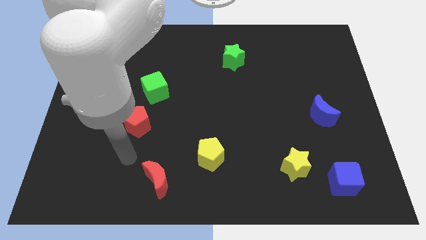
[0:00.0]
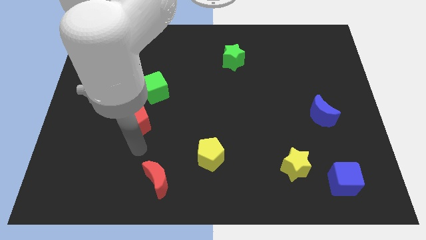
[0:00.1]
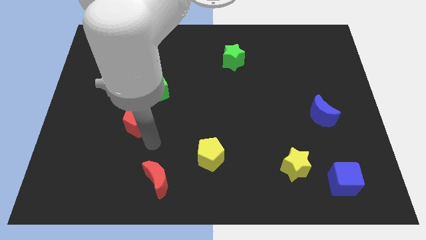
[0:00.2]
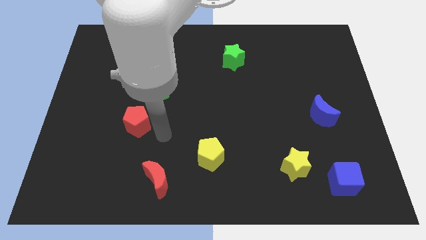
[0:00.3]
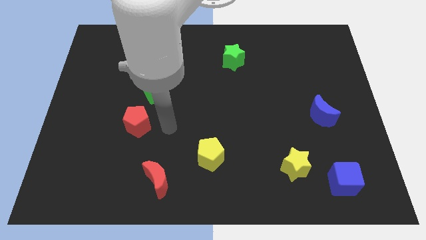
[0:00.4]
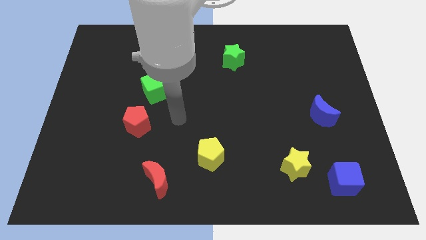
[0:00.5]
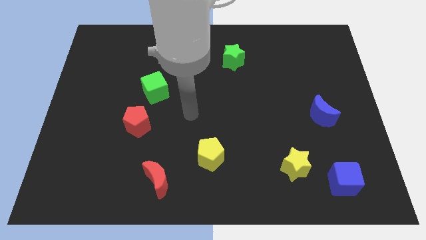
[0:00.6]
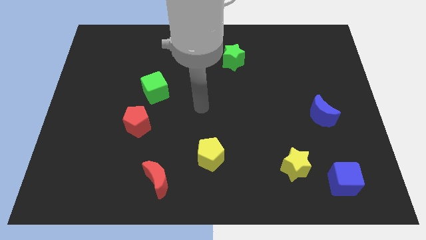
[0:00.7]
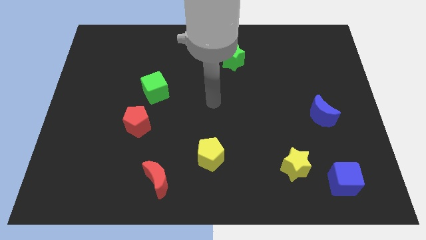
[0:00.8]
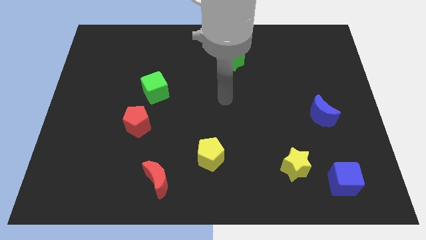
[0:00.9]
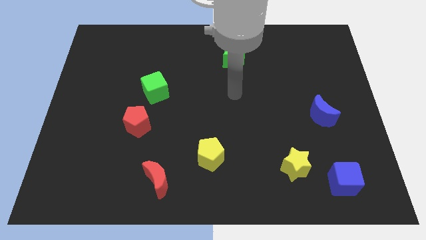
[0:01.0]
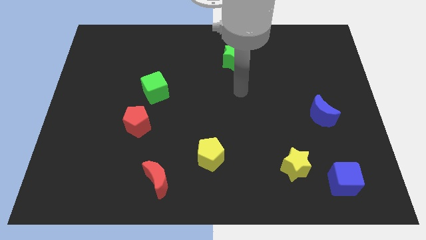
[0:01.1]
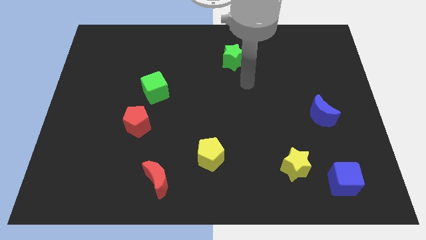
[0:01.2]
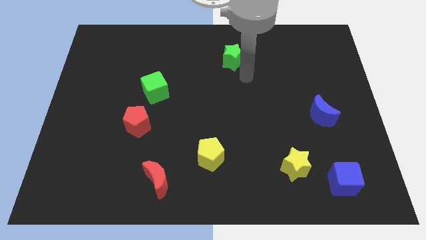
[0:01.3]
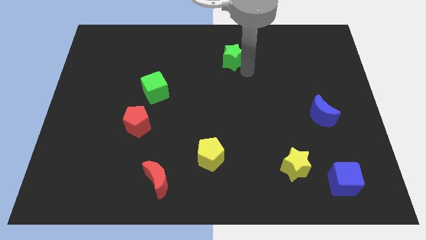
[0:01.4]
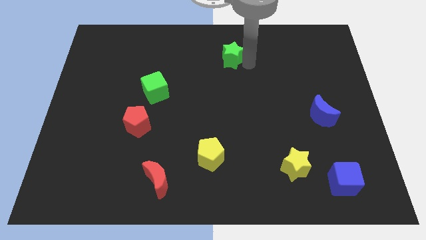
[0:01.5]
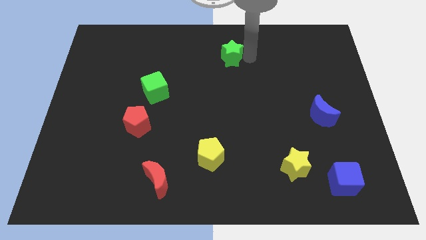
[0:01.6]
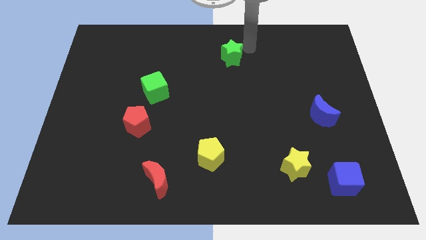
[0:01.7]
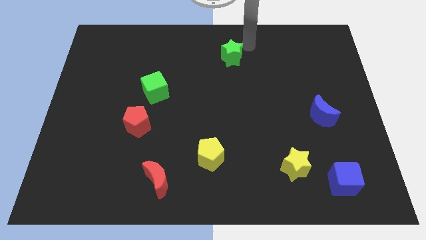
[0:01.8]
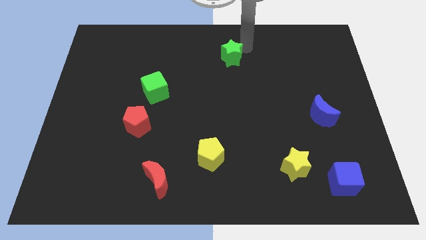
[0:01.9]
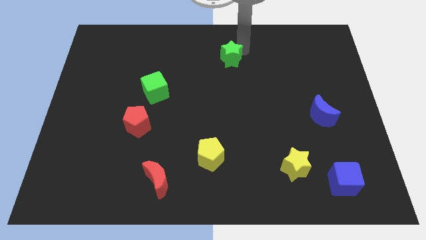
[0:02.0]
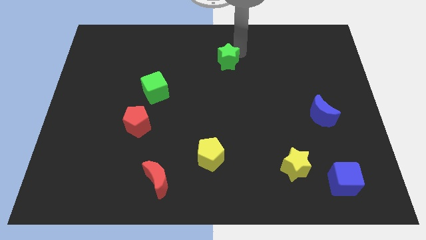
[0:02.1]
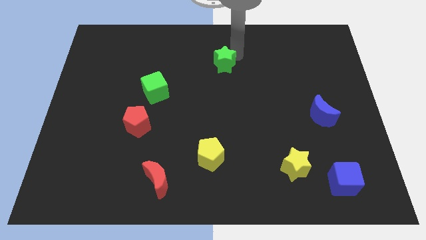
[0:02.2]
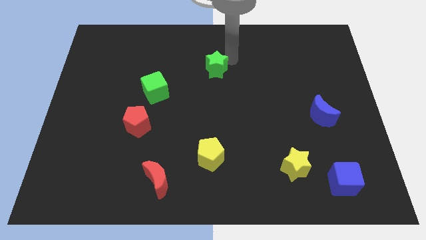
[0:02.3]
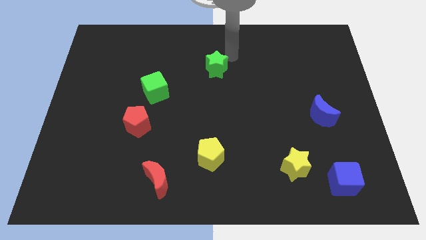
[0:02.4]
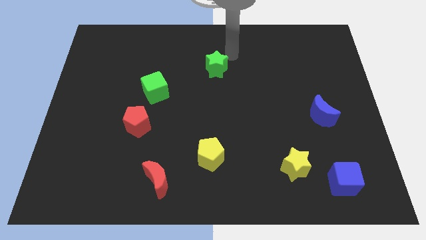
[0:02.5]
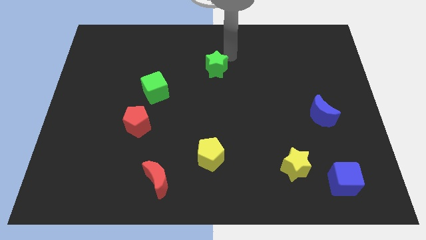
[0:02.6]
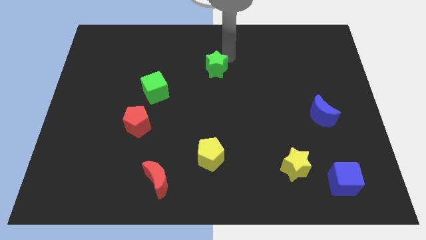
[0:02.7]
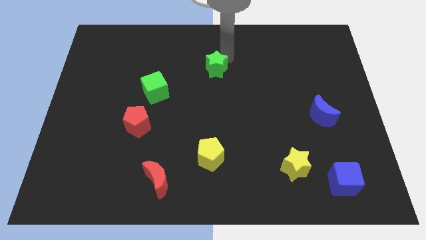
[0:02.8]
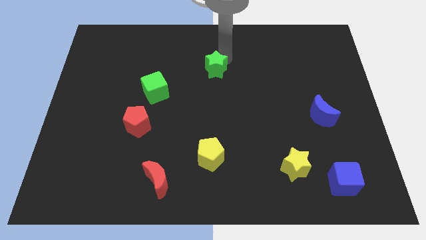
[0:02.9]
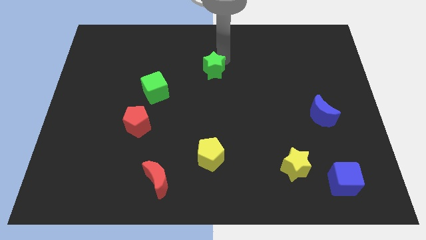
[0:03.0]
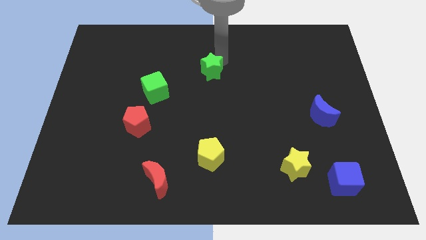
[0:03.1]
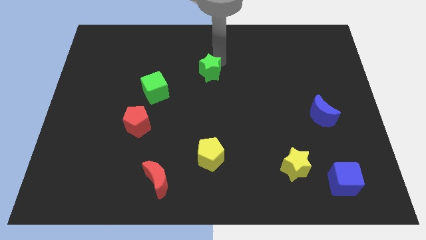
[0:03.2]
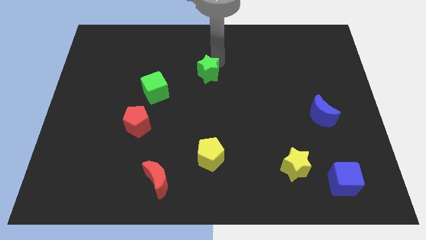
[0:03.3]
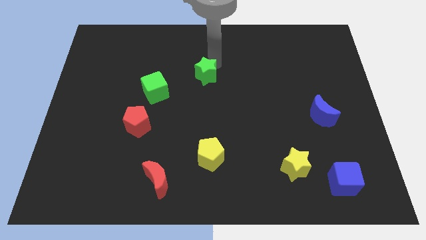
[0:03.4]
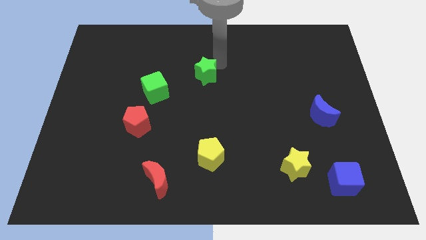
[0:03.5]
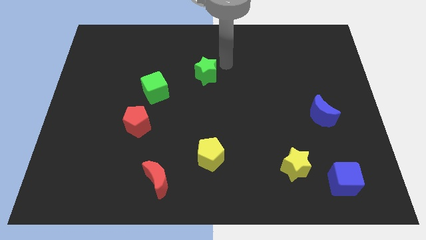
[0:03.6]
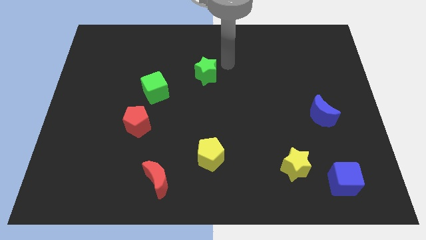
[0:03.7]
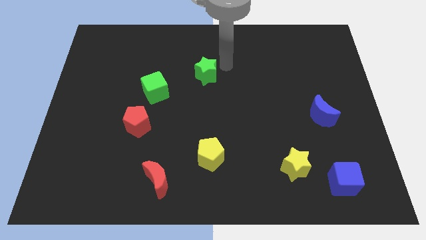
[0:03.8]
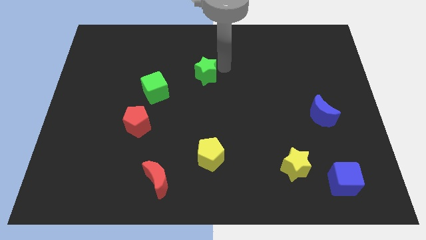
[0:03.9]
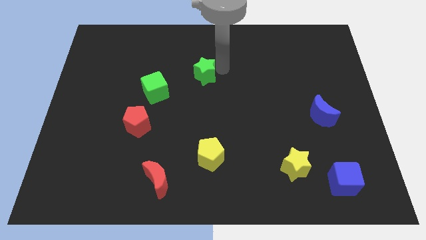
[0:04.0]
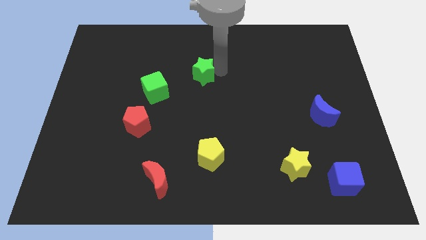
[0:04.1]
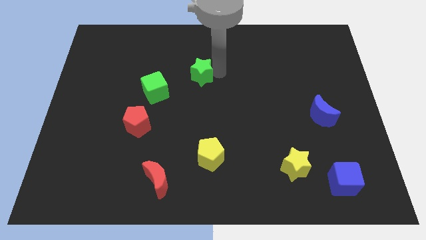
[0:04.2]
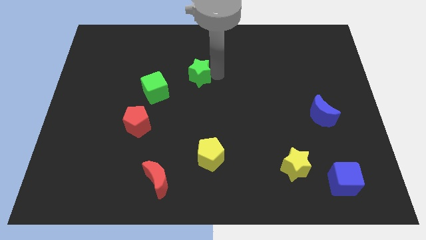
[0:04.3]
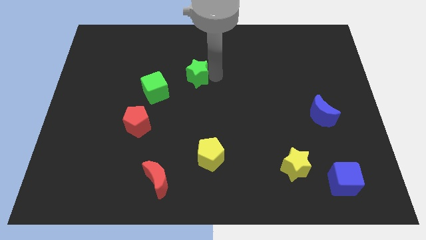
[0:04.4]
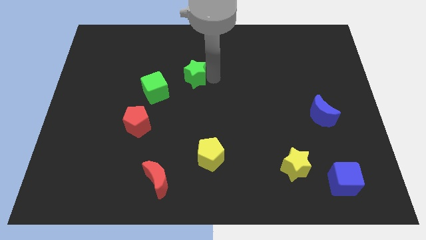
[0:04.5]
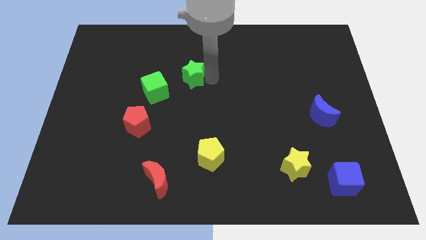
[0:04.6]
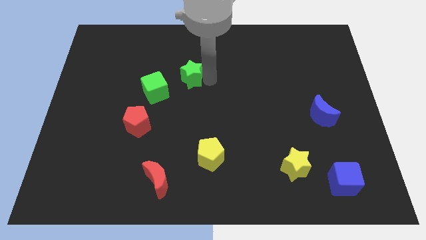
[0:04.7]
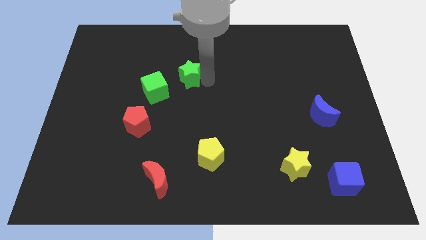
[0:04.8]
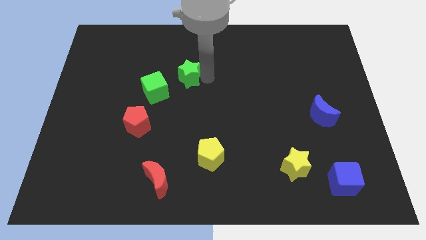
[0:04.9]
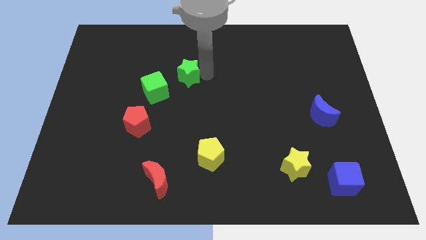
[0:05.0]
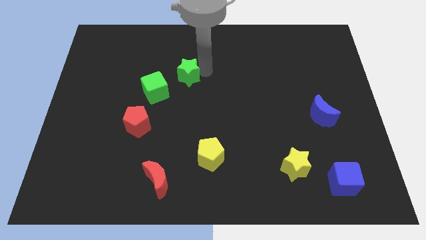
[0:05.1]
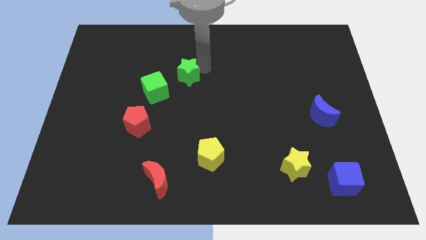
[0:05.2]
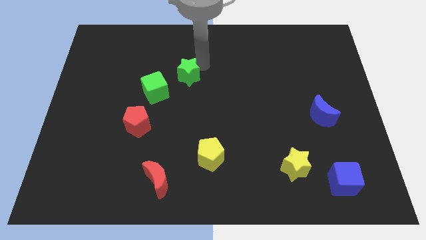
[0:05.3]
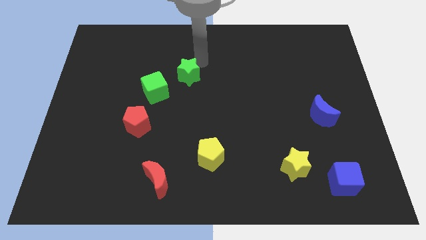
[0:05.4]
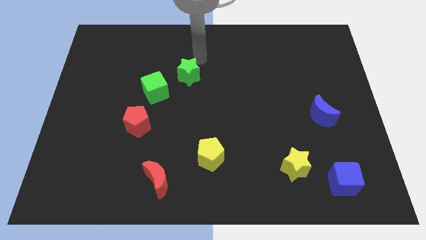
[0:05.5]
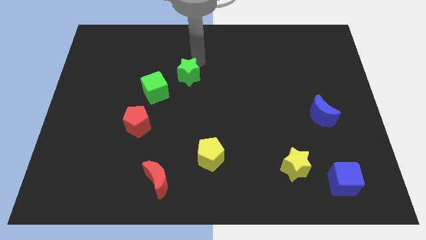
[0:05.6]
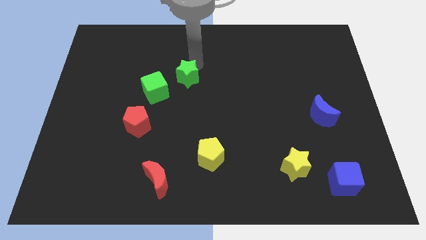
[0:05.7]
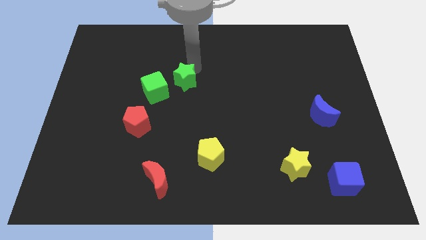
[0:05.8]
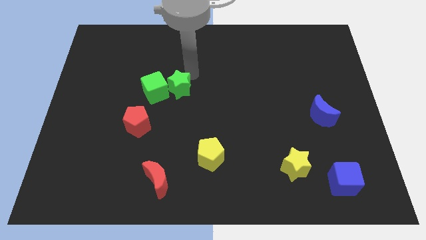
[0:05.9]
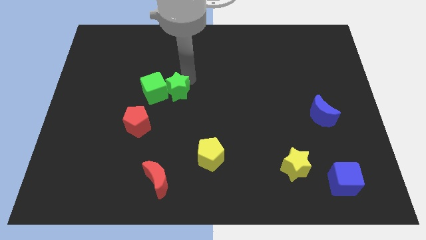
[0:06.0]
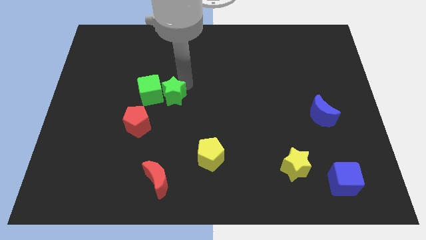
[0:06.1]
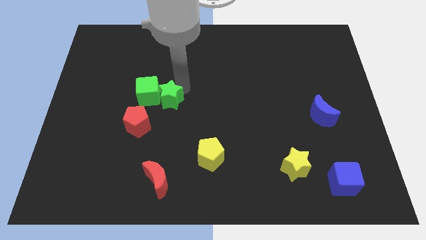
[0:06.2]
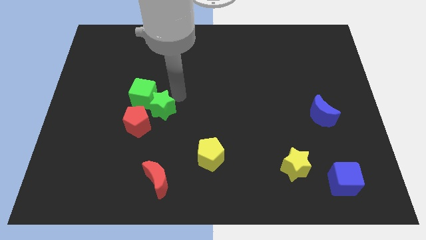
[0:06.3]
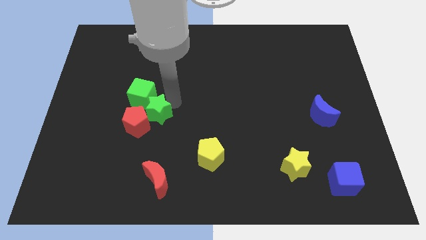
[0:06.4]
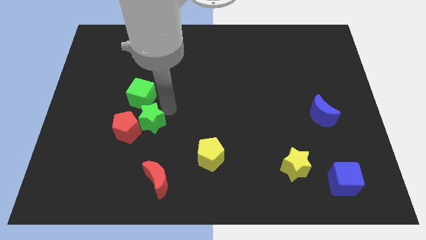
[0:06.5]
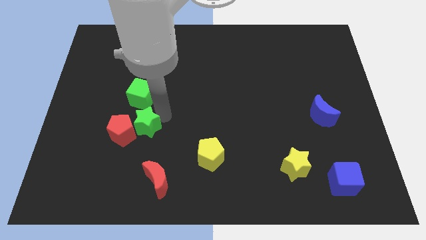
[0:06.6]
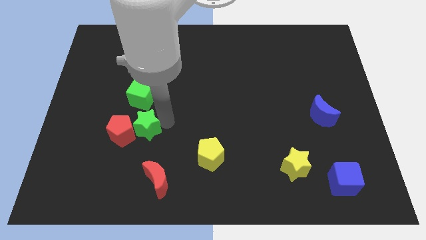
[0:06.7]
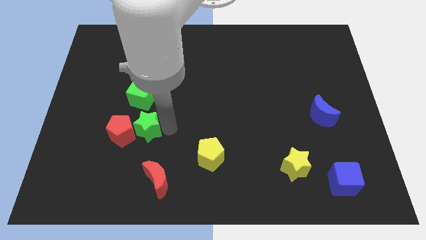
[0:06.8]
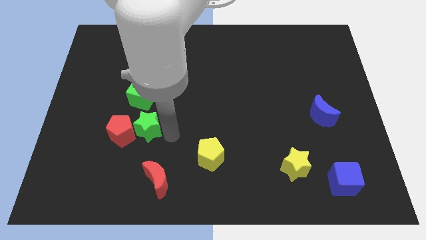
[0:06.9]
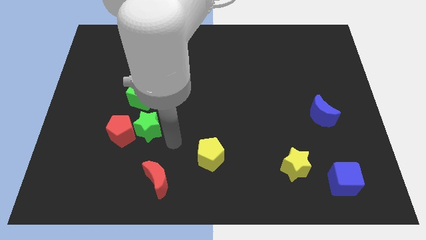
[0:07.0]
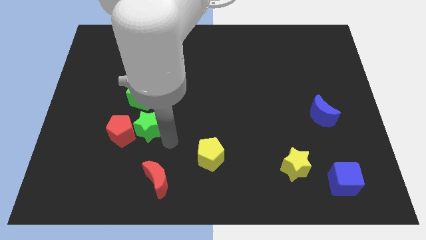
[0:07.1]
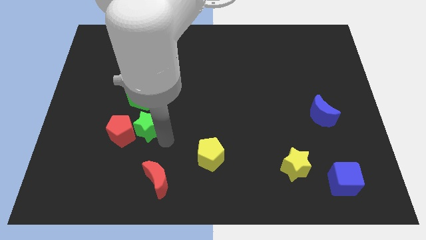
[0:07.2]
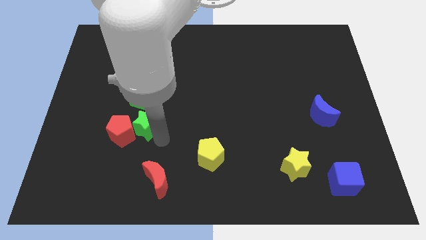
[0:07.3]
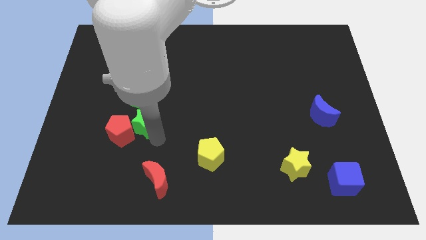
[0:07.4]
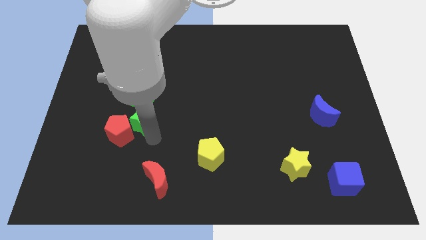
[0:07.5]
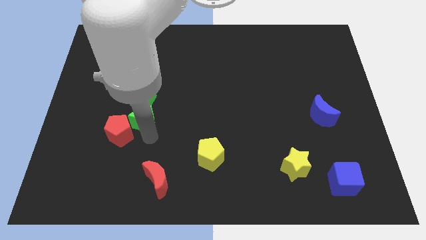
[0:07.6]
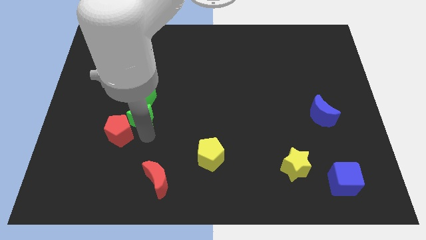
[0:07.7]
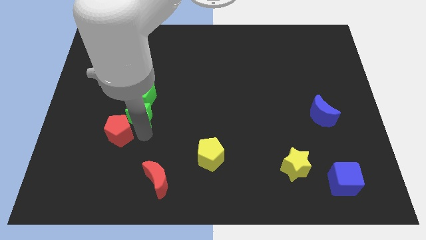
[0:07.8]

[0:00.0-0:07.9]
put the green star to the bottom left of the green cube

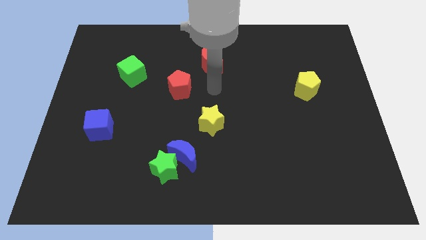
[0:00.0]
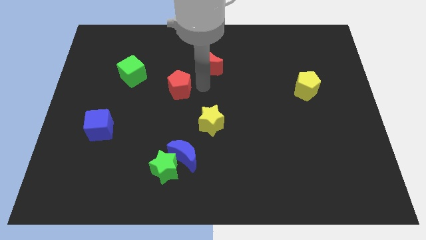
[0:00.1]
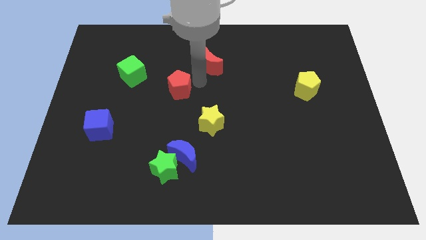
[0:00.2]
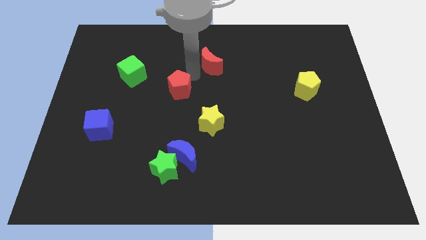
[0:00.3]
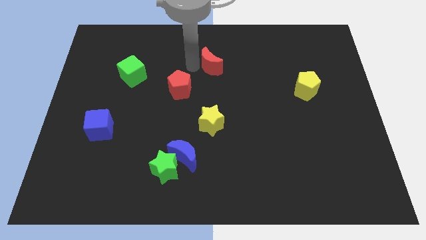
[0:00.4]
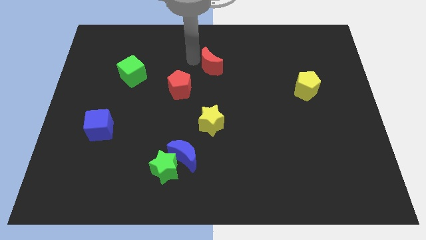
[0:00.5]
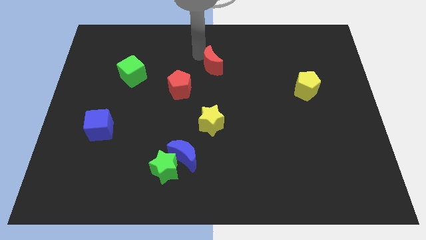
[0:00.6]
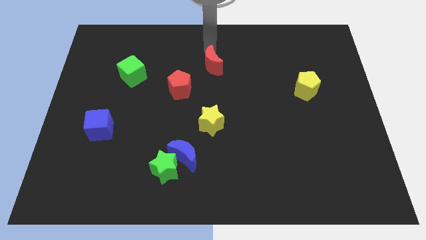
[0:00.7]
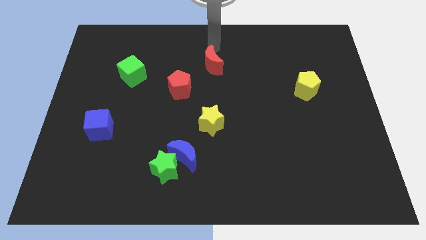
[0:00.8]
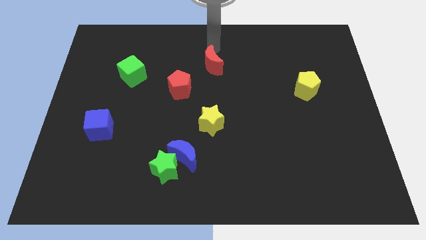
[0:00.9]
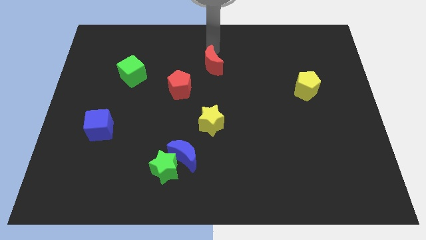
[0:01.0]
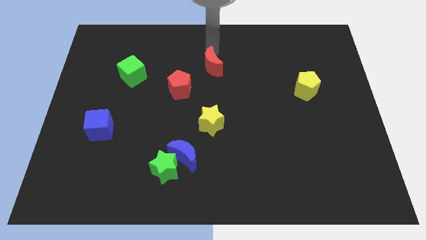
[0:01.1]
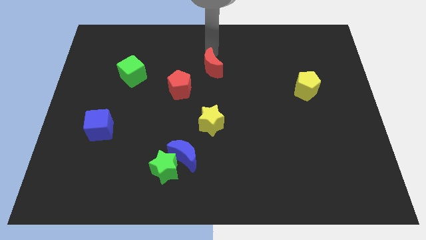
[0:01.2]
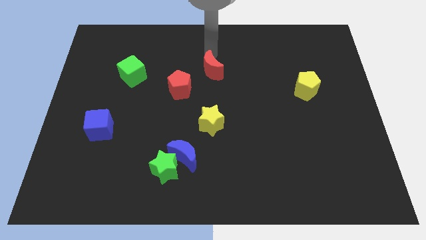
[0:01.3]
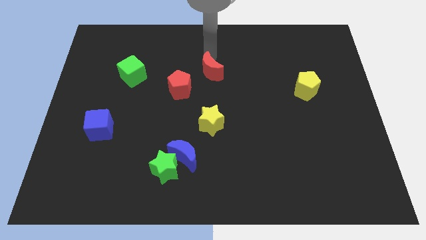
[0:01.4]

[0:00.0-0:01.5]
push the red moon to the top side of the yellow star
